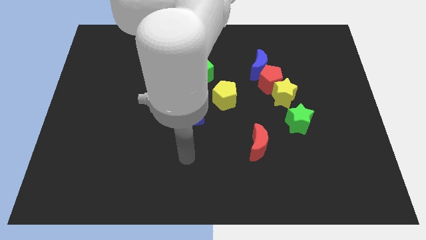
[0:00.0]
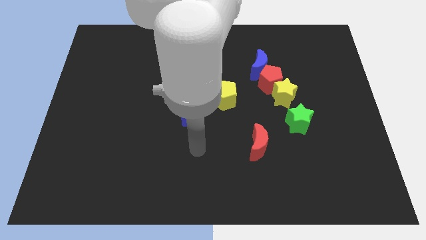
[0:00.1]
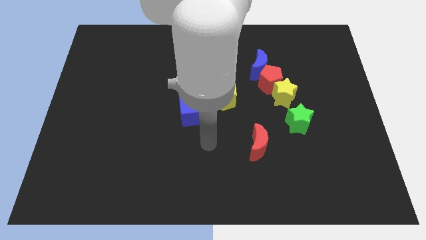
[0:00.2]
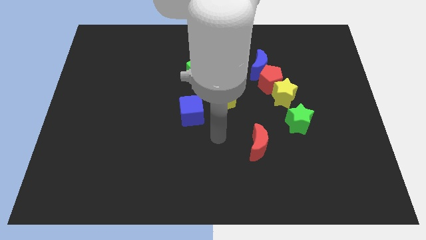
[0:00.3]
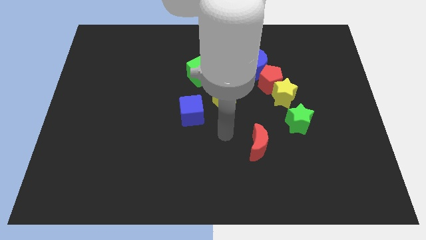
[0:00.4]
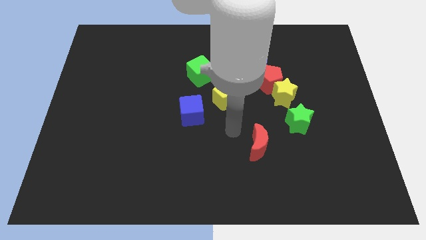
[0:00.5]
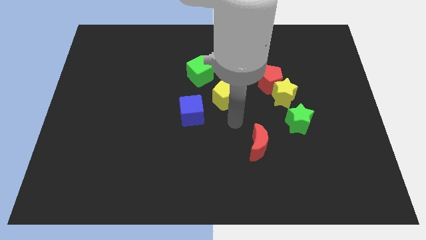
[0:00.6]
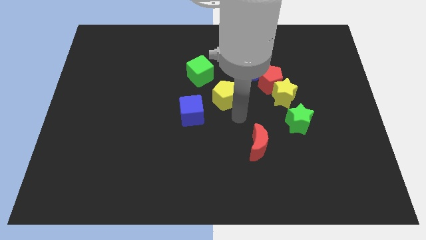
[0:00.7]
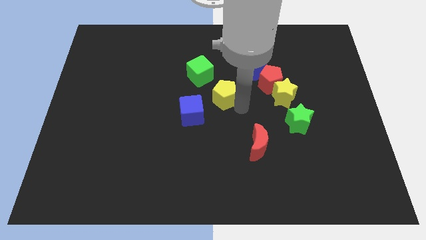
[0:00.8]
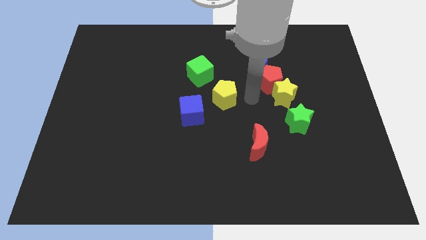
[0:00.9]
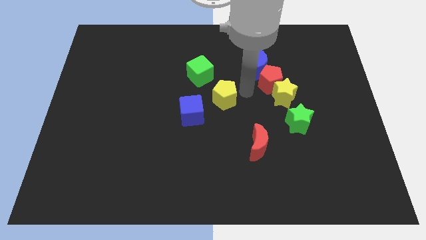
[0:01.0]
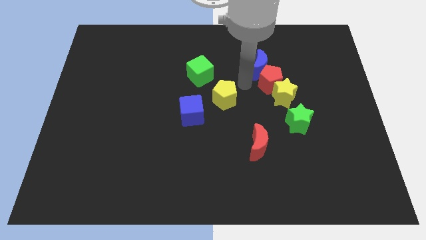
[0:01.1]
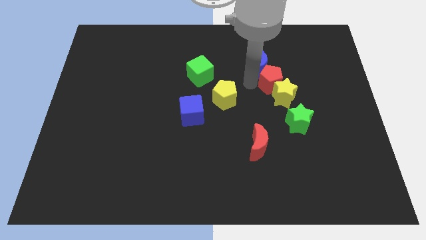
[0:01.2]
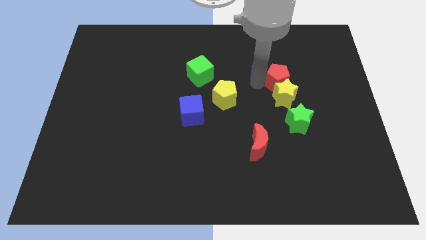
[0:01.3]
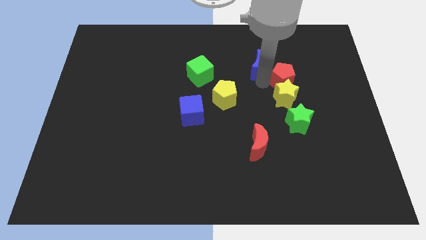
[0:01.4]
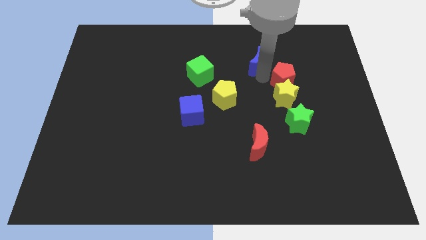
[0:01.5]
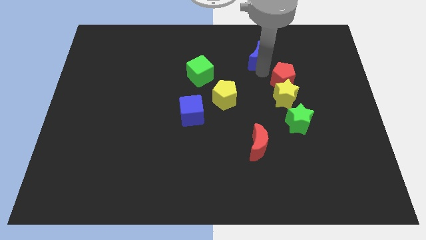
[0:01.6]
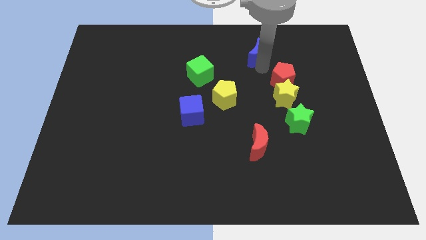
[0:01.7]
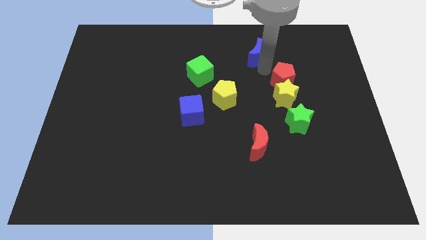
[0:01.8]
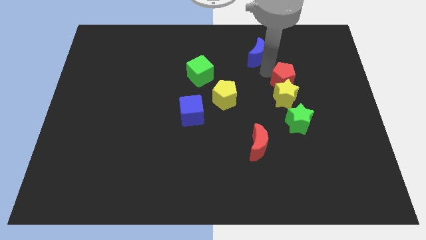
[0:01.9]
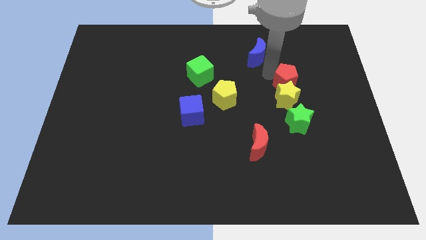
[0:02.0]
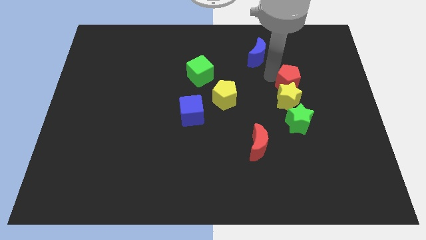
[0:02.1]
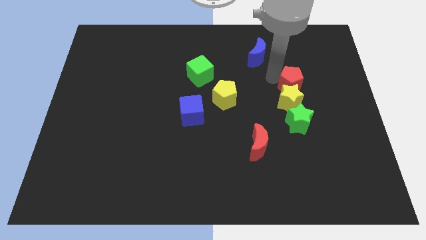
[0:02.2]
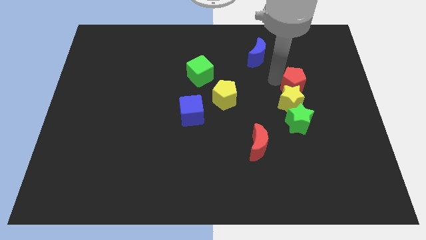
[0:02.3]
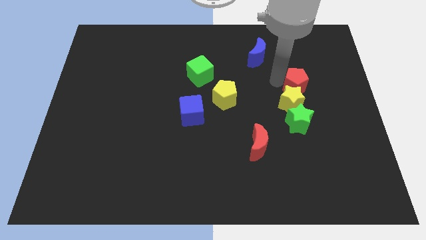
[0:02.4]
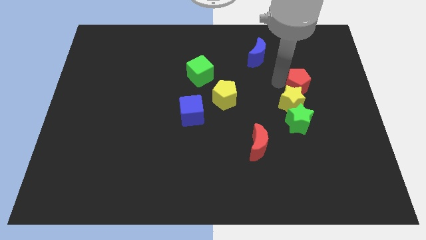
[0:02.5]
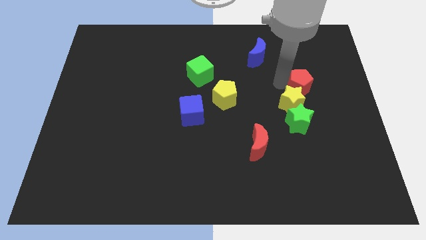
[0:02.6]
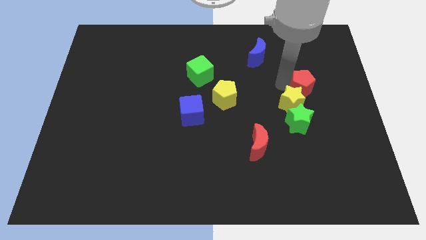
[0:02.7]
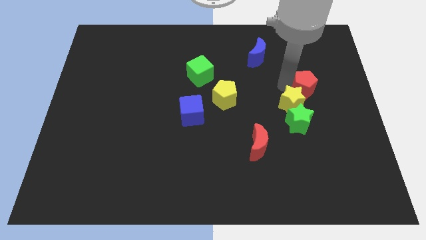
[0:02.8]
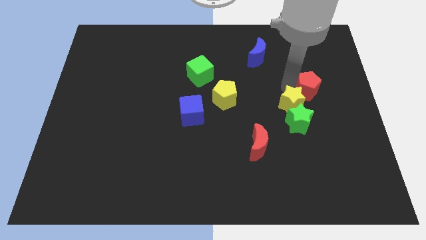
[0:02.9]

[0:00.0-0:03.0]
move the red pentagon diagonally downwards and to the right a little

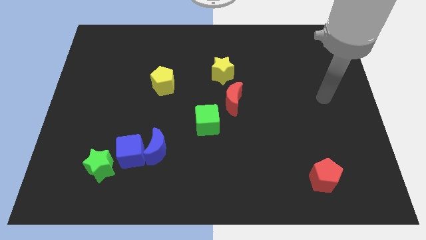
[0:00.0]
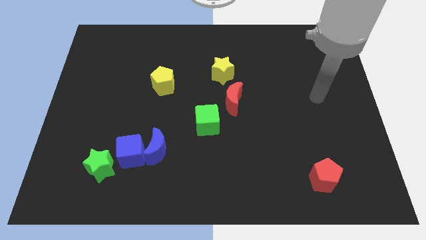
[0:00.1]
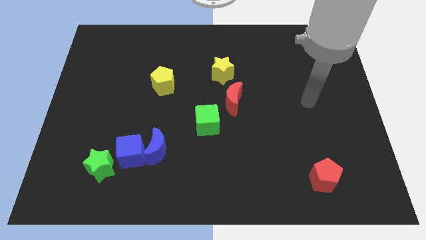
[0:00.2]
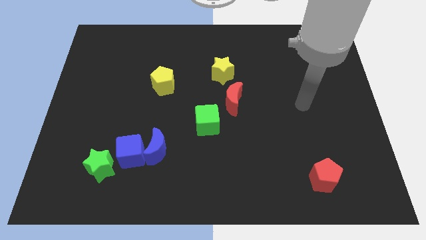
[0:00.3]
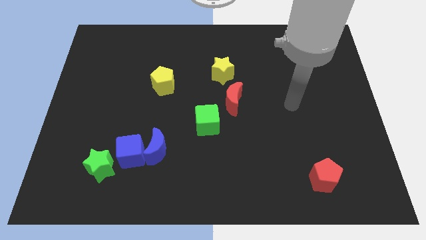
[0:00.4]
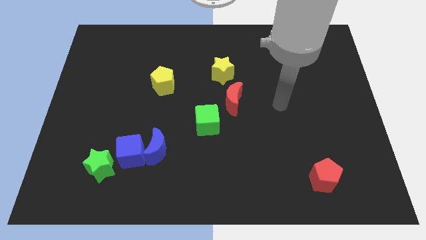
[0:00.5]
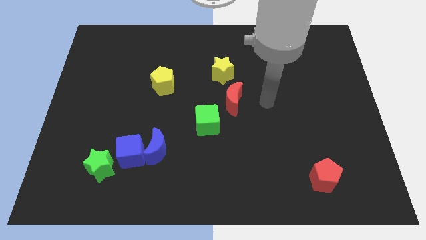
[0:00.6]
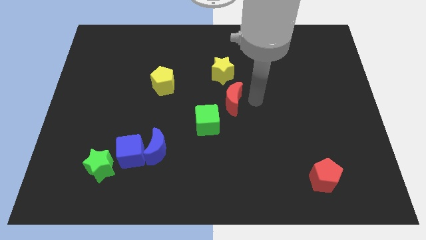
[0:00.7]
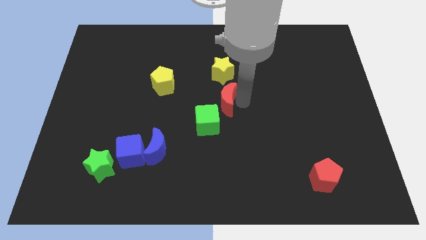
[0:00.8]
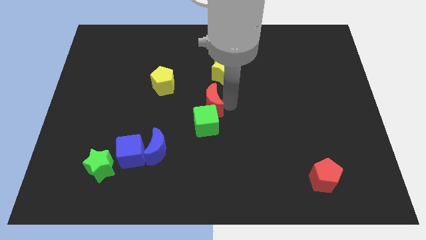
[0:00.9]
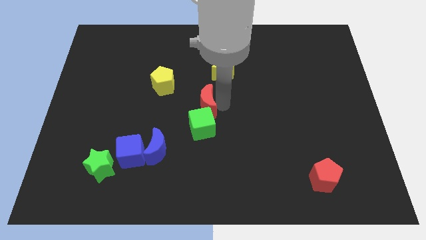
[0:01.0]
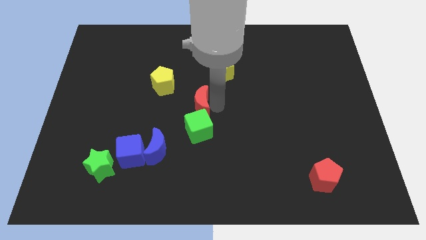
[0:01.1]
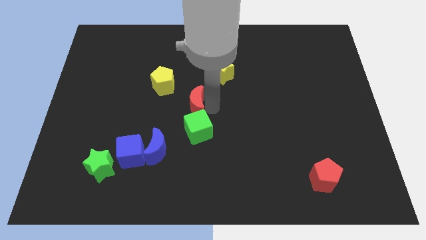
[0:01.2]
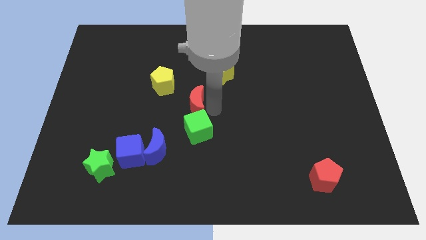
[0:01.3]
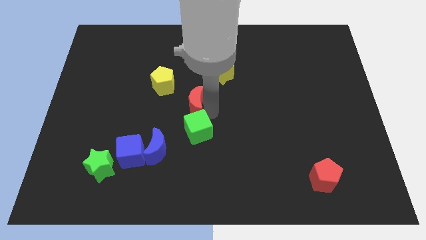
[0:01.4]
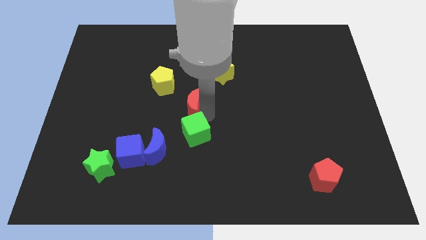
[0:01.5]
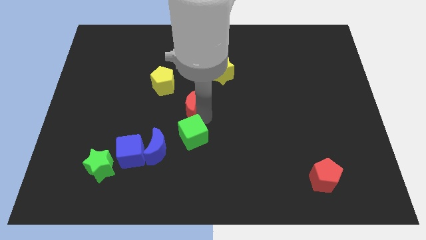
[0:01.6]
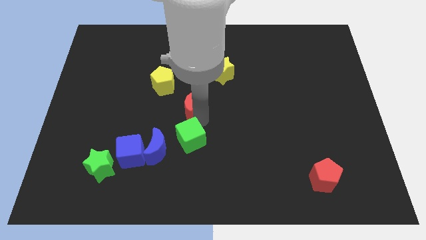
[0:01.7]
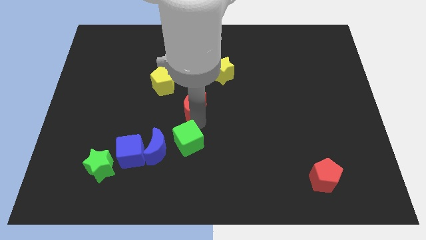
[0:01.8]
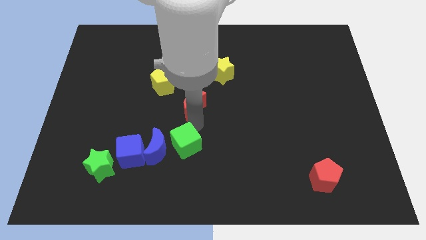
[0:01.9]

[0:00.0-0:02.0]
push the green cube a bit down and then to the left

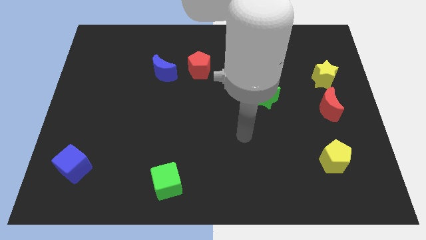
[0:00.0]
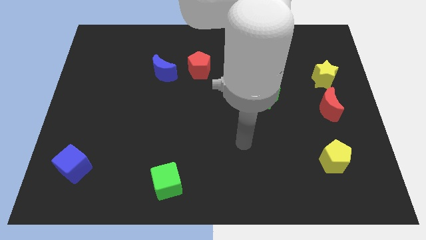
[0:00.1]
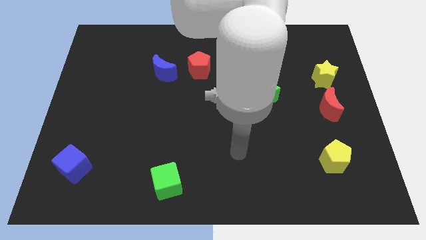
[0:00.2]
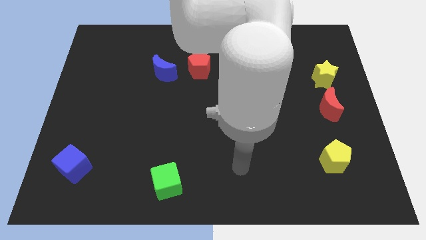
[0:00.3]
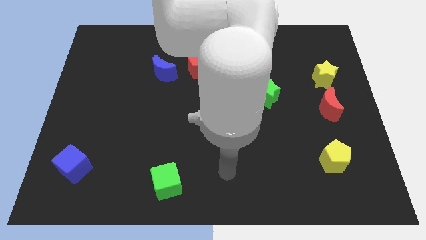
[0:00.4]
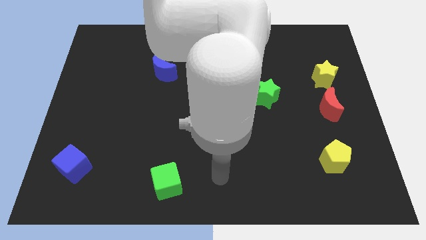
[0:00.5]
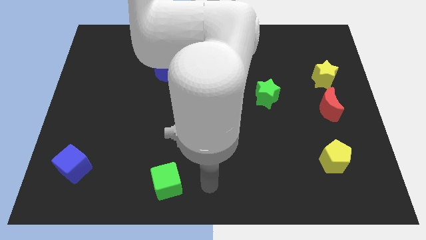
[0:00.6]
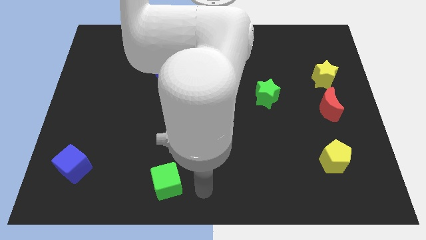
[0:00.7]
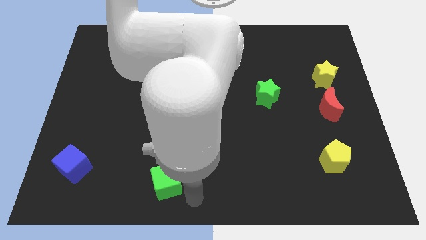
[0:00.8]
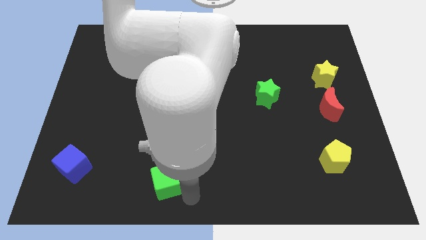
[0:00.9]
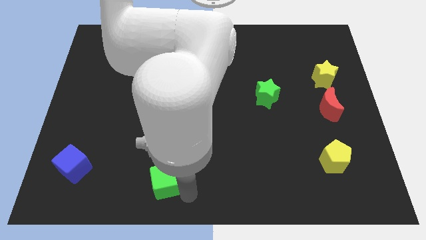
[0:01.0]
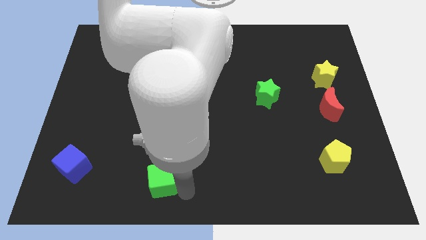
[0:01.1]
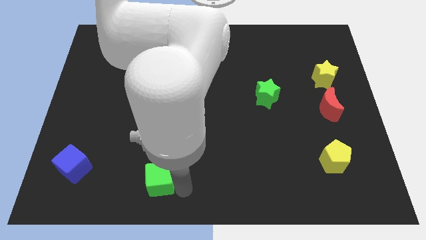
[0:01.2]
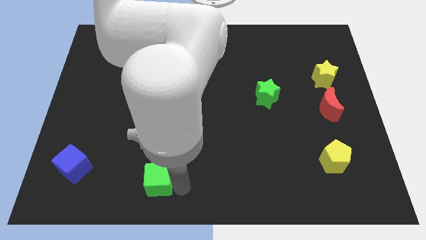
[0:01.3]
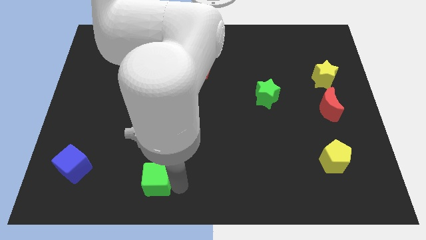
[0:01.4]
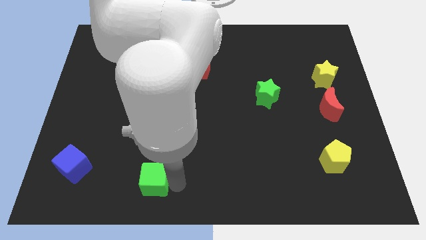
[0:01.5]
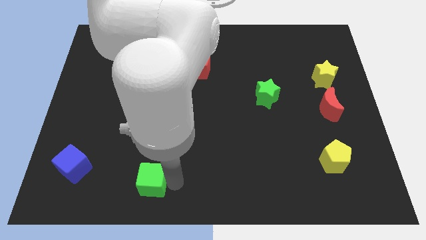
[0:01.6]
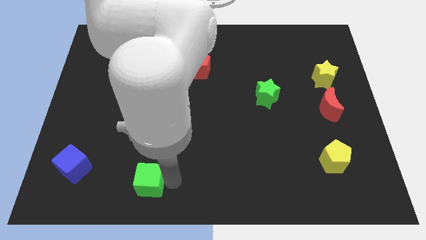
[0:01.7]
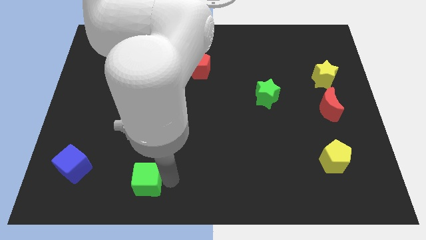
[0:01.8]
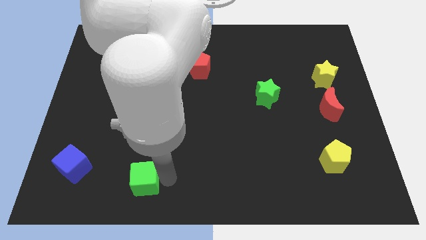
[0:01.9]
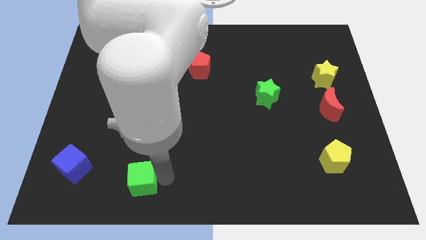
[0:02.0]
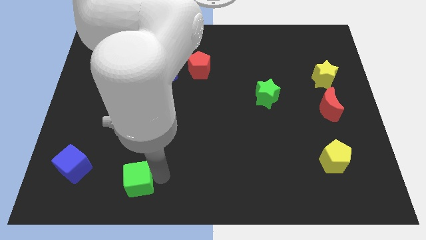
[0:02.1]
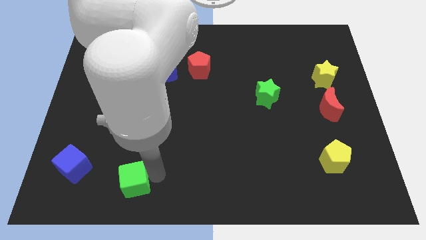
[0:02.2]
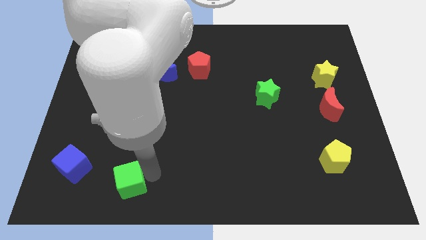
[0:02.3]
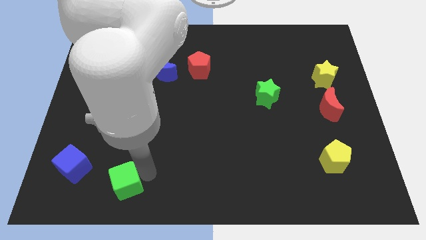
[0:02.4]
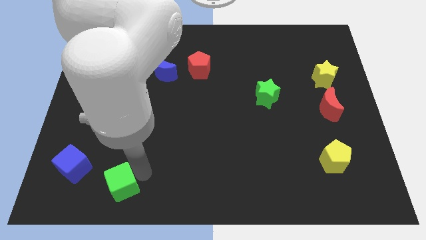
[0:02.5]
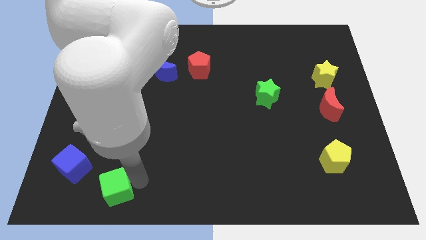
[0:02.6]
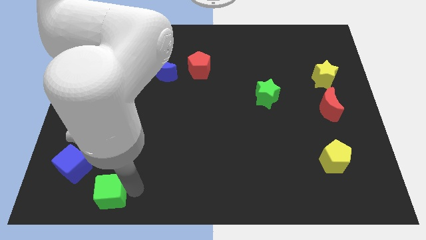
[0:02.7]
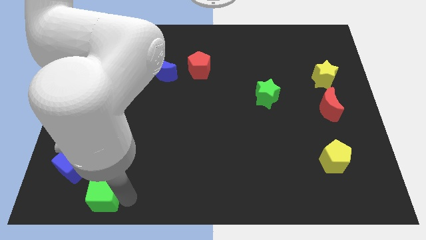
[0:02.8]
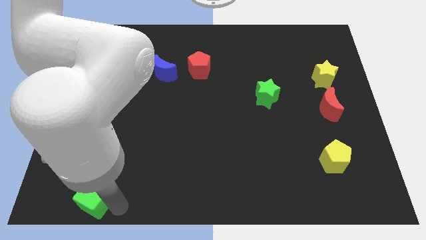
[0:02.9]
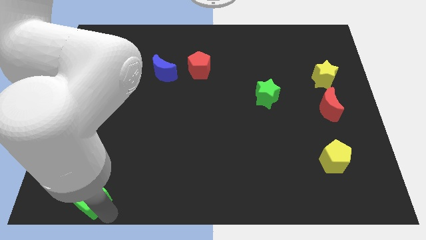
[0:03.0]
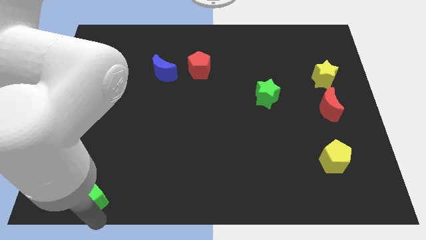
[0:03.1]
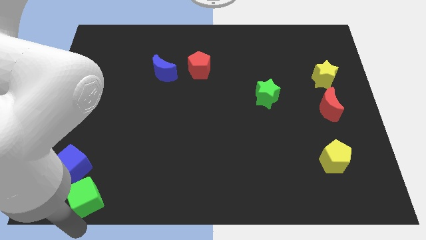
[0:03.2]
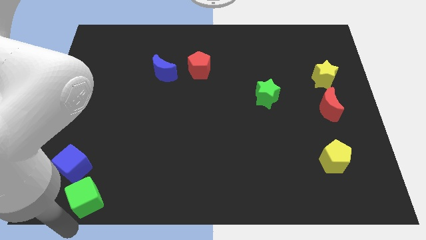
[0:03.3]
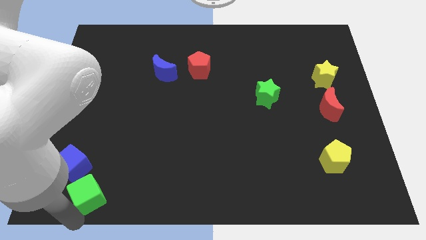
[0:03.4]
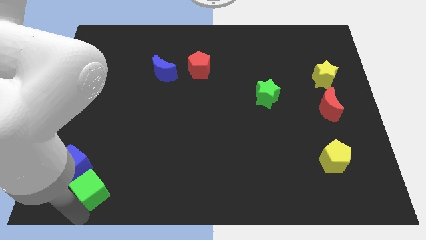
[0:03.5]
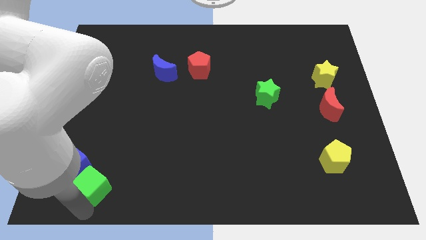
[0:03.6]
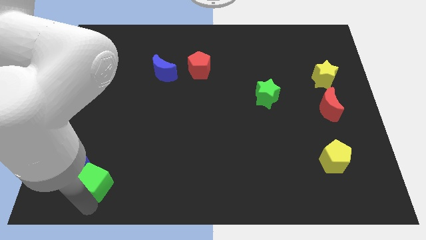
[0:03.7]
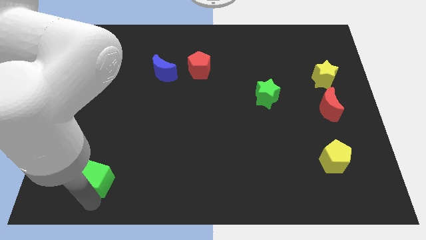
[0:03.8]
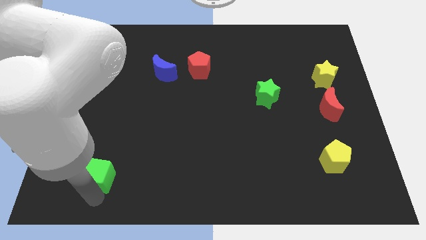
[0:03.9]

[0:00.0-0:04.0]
push the green cube a little bit up and to the left
